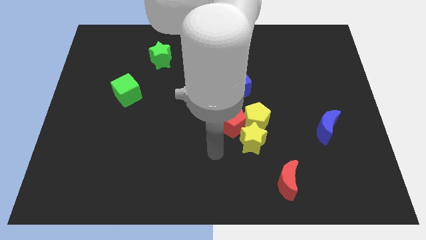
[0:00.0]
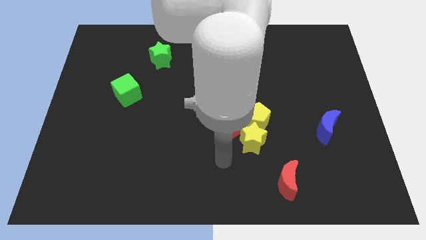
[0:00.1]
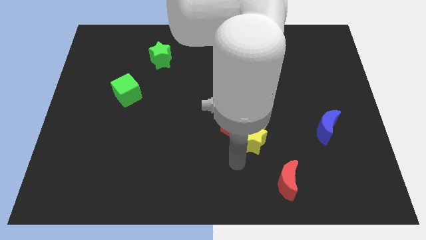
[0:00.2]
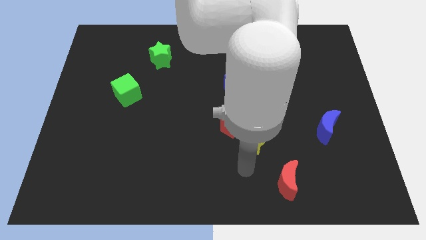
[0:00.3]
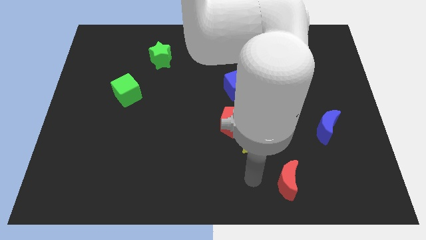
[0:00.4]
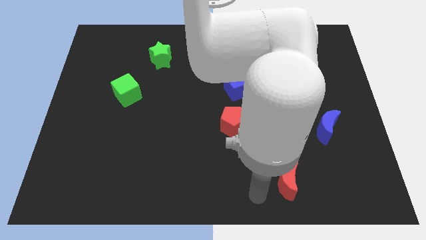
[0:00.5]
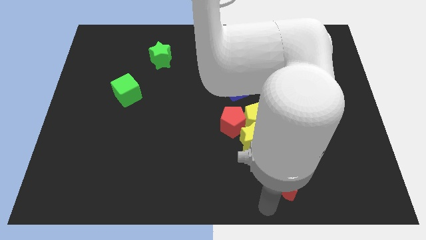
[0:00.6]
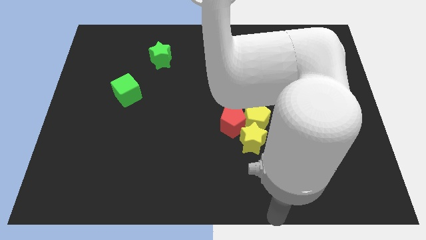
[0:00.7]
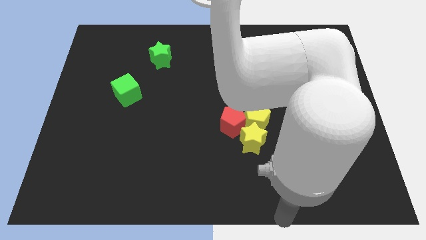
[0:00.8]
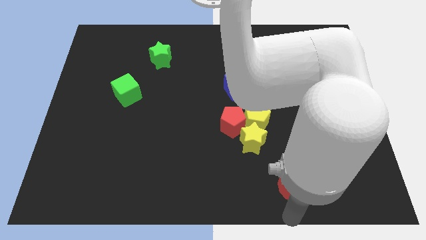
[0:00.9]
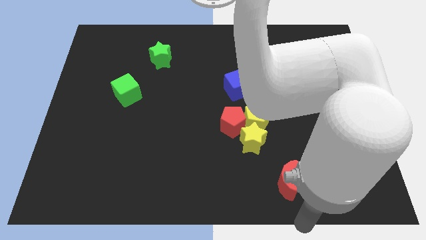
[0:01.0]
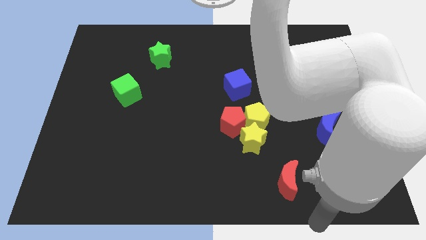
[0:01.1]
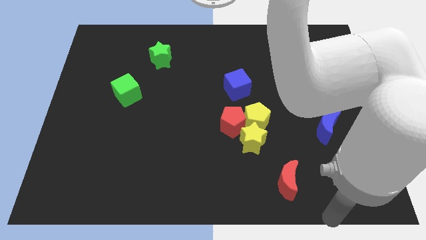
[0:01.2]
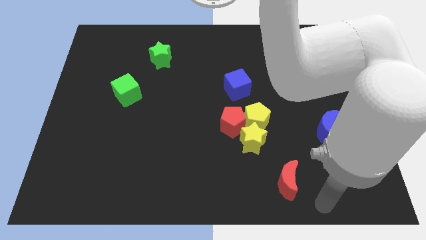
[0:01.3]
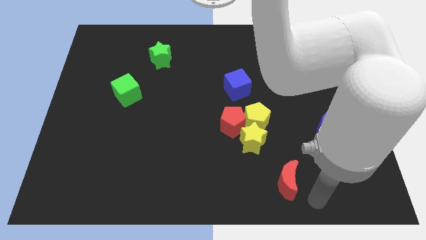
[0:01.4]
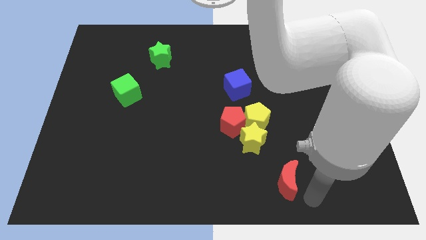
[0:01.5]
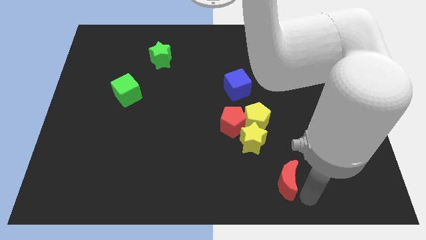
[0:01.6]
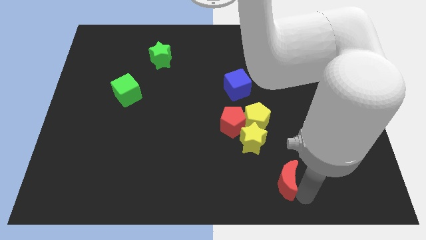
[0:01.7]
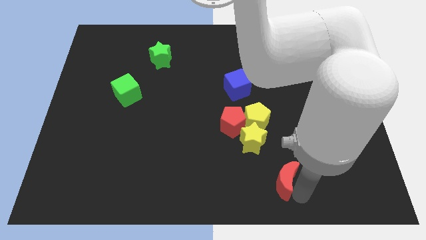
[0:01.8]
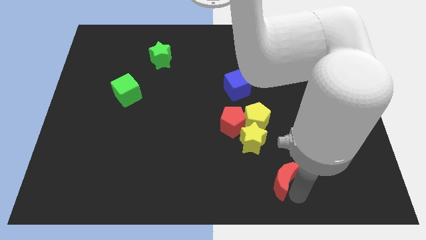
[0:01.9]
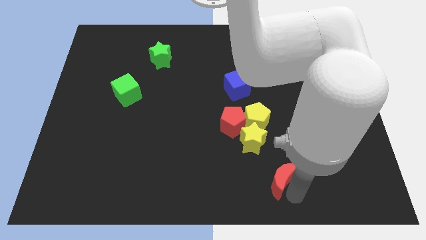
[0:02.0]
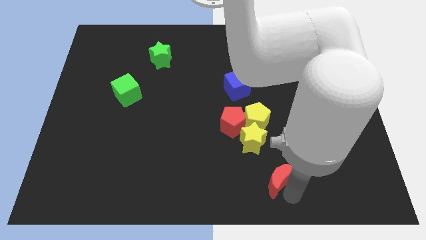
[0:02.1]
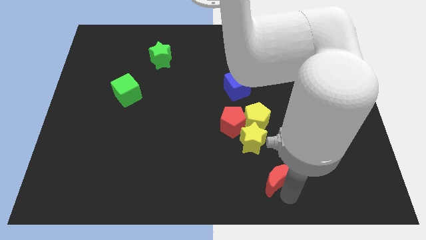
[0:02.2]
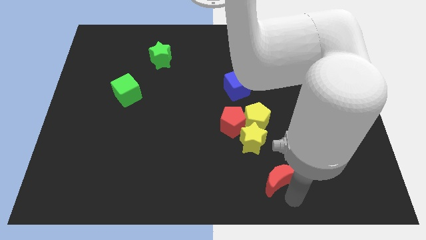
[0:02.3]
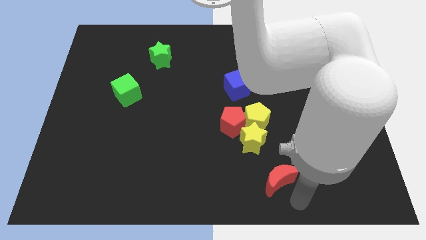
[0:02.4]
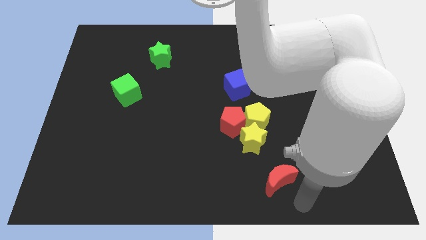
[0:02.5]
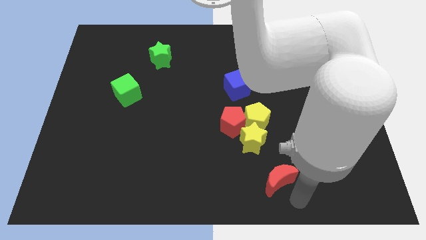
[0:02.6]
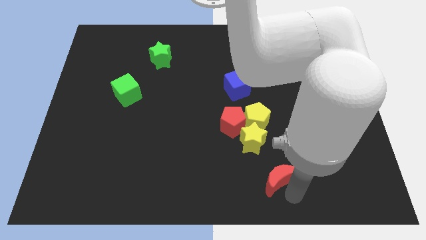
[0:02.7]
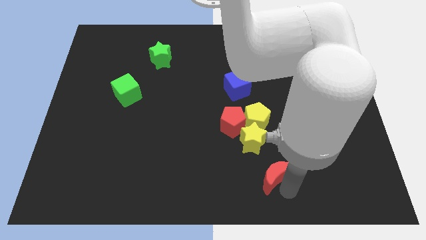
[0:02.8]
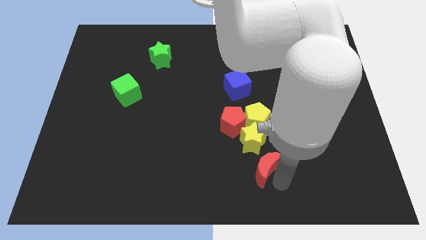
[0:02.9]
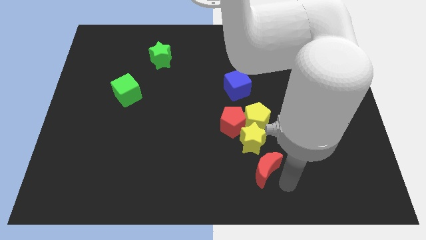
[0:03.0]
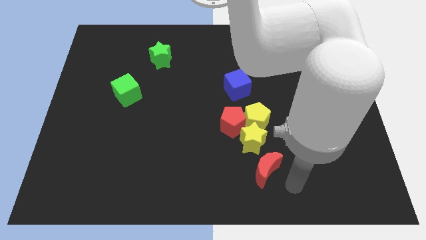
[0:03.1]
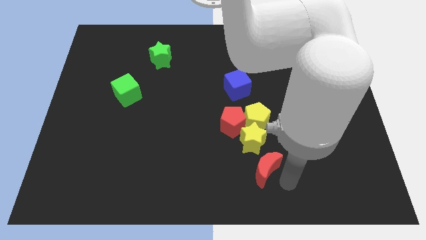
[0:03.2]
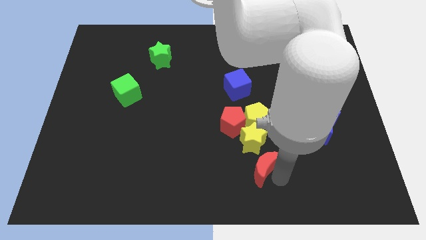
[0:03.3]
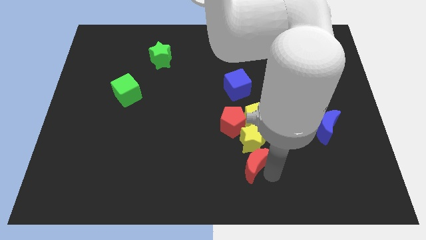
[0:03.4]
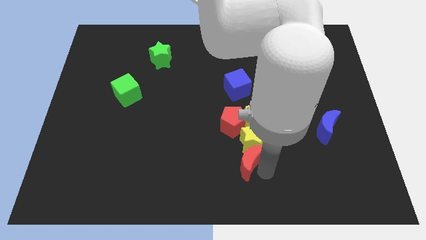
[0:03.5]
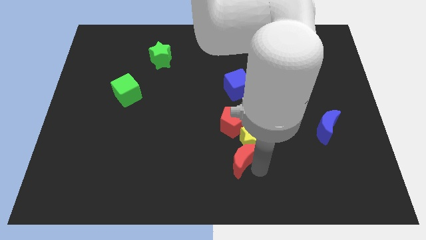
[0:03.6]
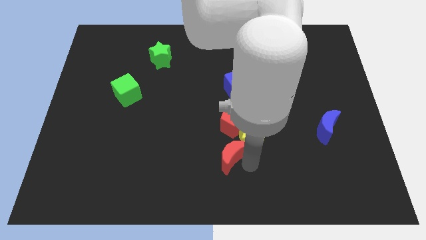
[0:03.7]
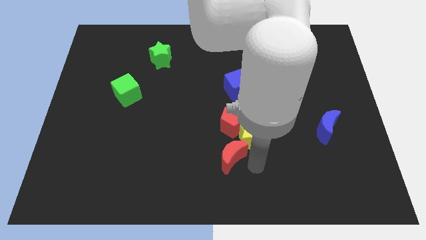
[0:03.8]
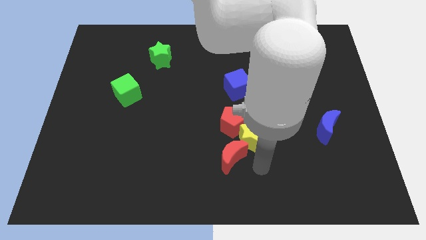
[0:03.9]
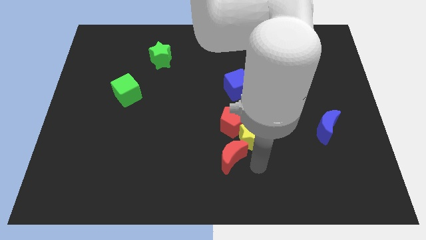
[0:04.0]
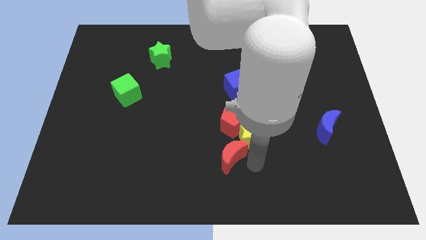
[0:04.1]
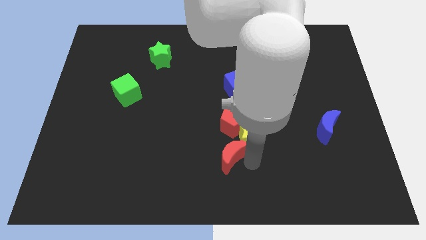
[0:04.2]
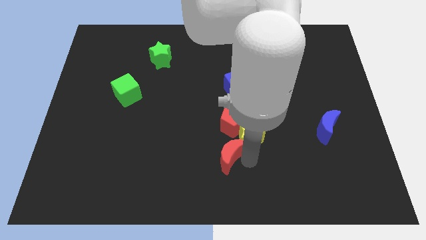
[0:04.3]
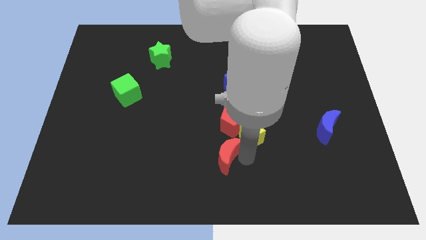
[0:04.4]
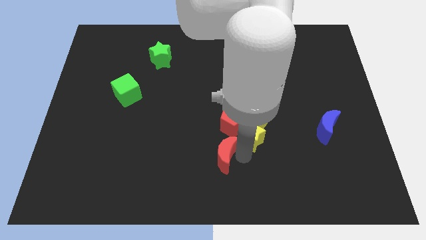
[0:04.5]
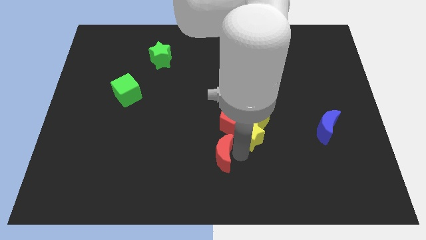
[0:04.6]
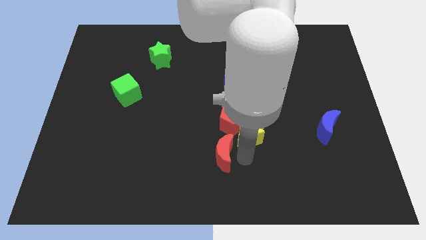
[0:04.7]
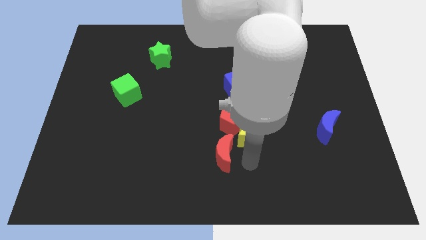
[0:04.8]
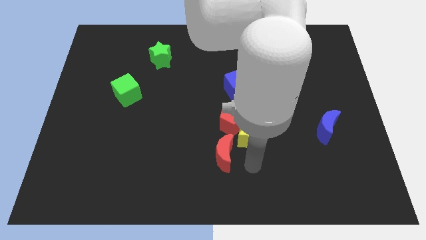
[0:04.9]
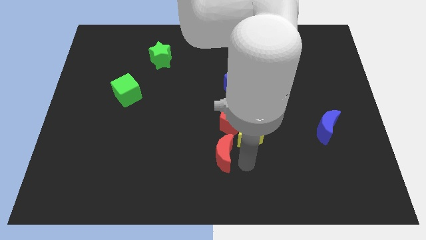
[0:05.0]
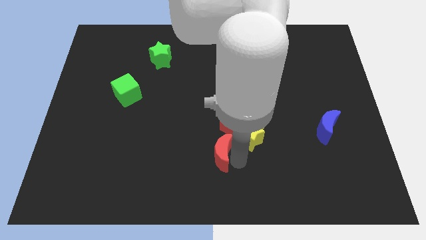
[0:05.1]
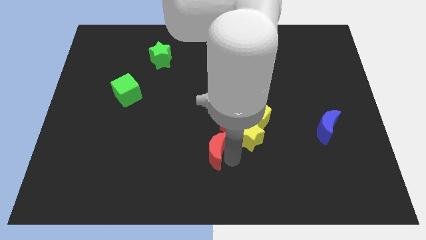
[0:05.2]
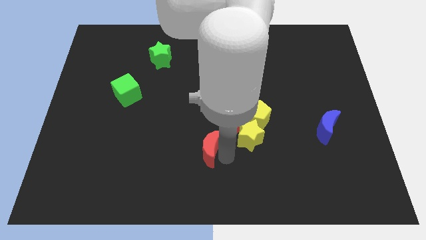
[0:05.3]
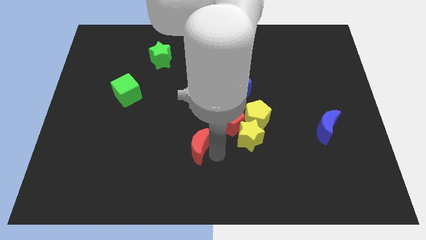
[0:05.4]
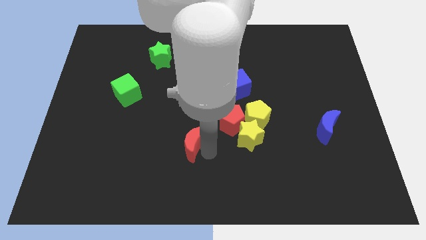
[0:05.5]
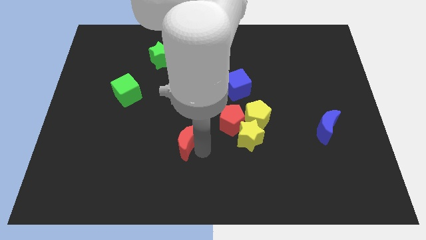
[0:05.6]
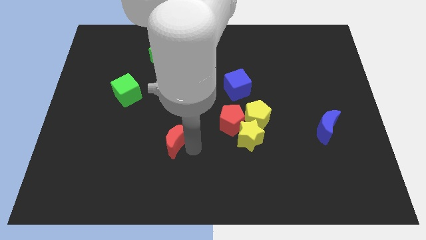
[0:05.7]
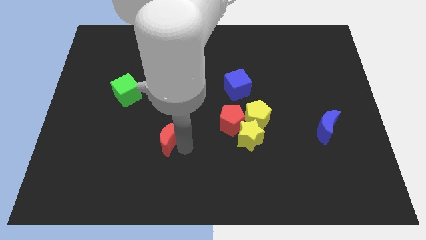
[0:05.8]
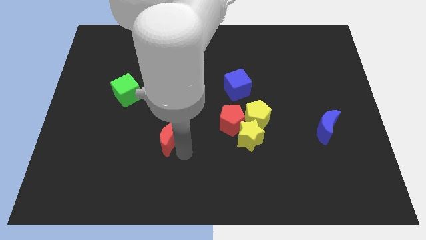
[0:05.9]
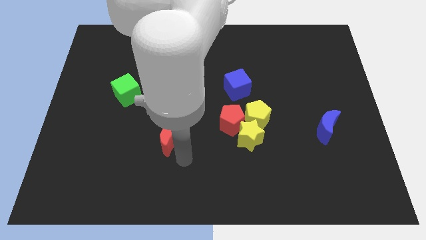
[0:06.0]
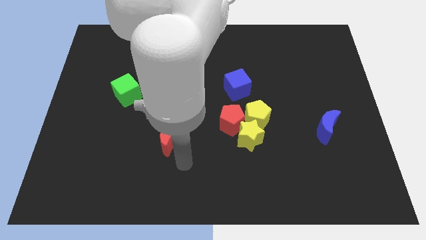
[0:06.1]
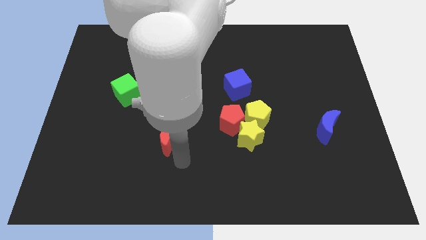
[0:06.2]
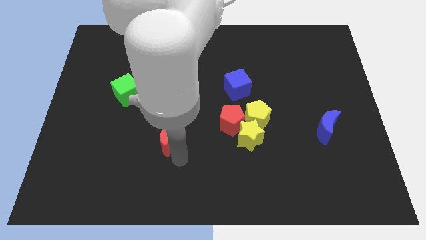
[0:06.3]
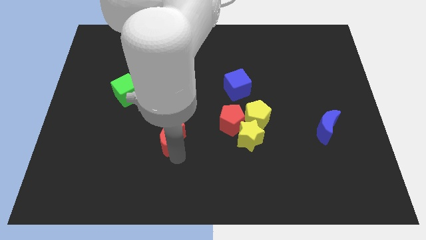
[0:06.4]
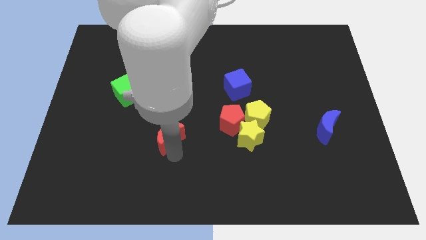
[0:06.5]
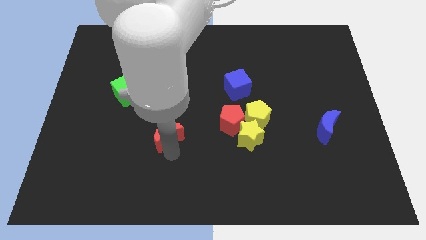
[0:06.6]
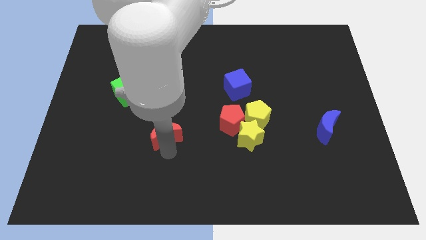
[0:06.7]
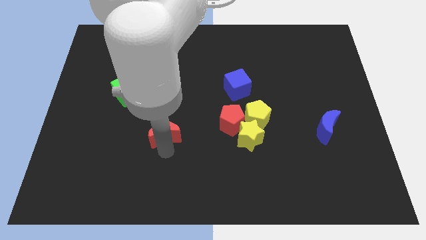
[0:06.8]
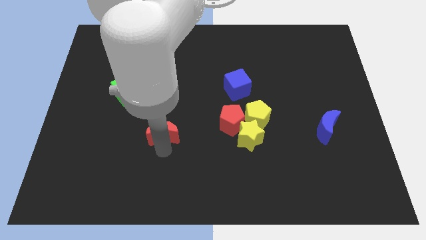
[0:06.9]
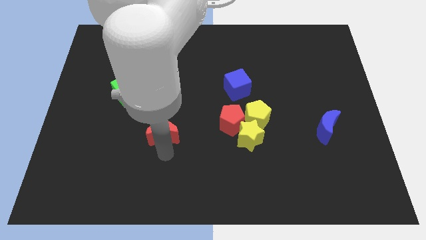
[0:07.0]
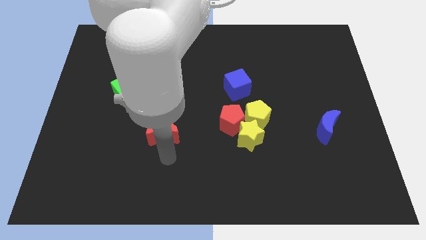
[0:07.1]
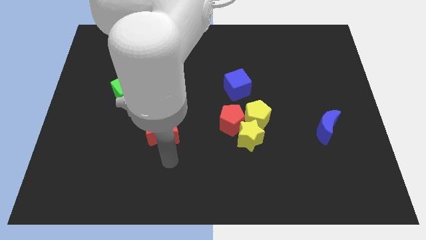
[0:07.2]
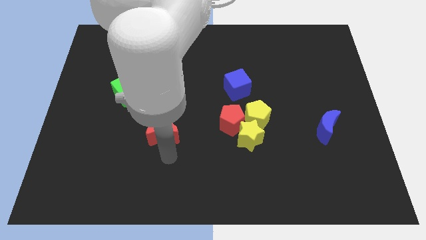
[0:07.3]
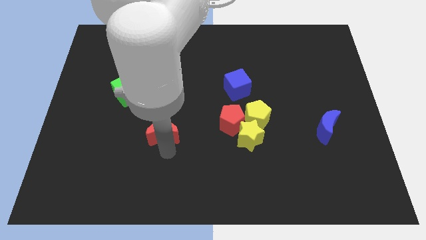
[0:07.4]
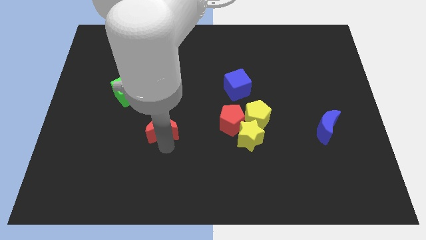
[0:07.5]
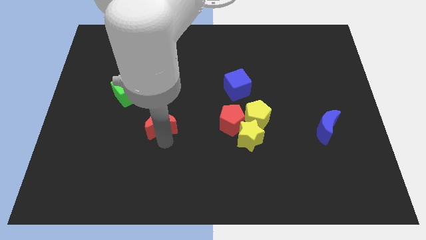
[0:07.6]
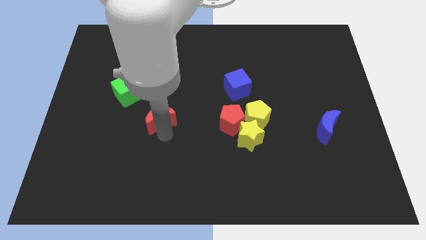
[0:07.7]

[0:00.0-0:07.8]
push the red moon to the bottom right of the green cube

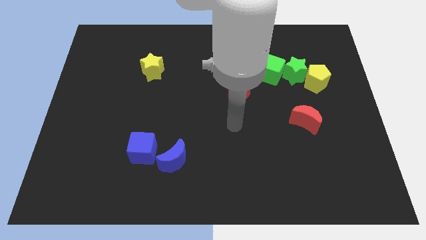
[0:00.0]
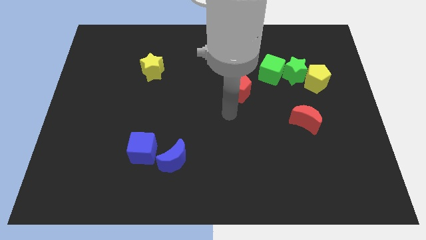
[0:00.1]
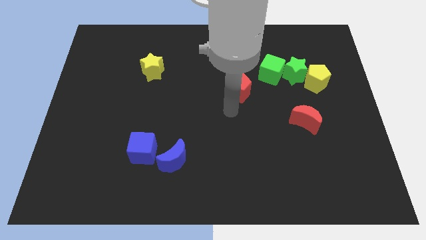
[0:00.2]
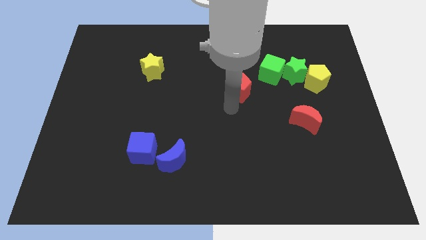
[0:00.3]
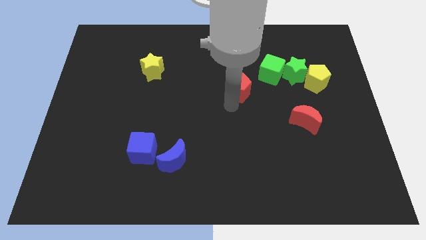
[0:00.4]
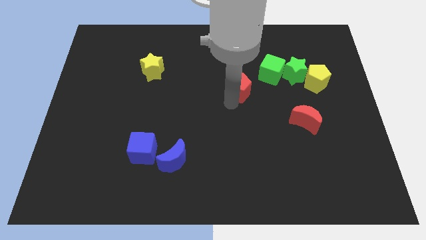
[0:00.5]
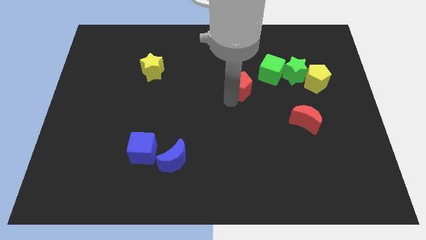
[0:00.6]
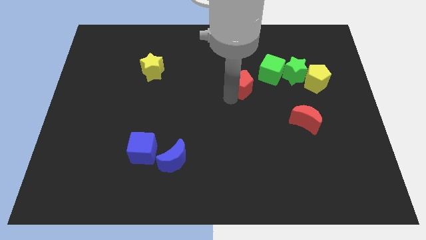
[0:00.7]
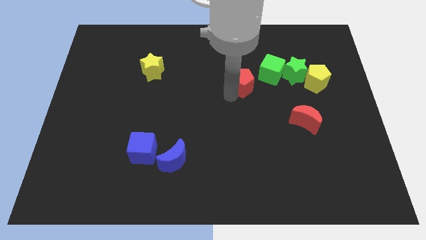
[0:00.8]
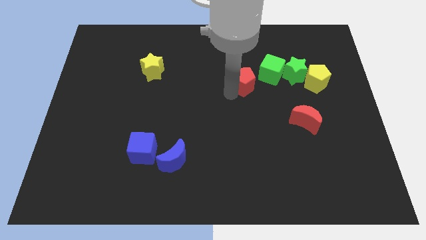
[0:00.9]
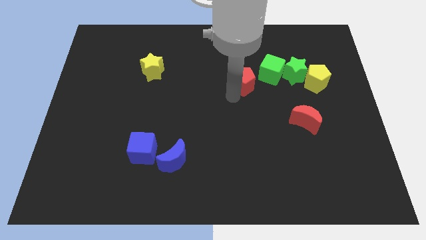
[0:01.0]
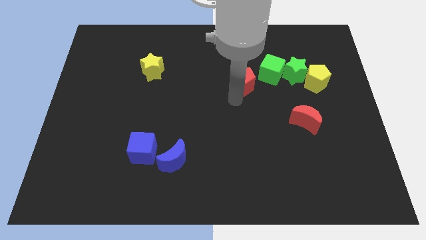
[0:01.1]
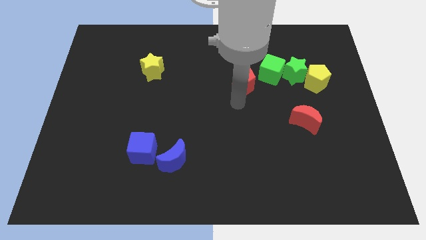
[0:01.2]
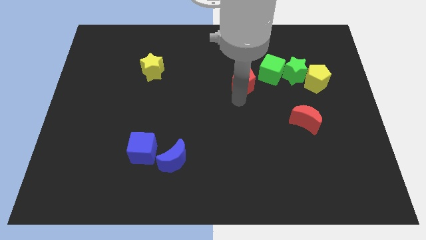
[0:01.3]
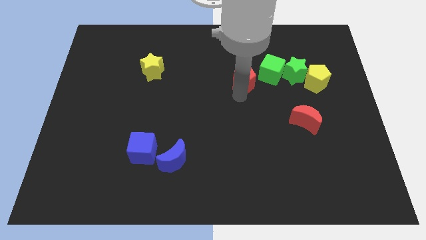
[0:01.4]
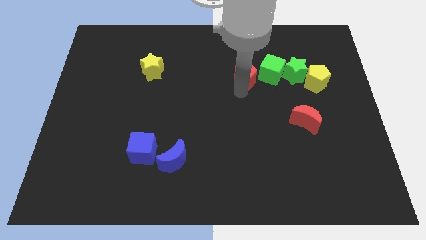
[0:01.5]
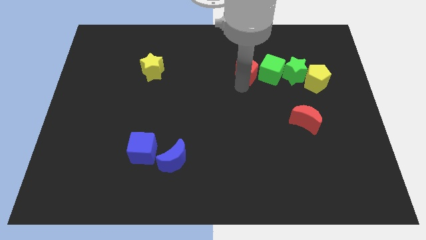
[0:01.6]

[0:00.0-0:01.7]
slide the red pentagon to the top left side of the green cube
